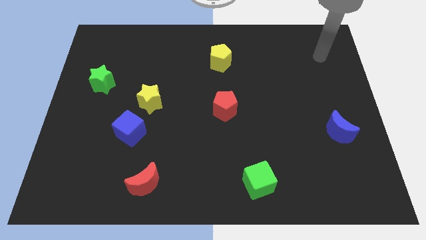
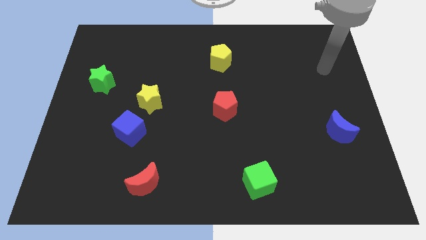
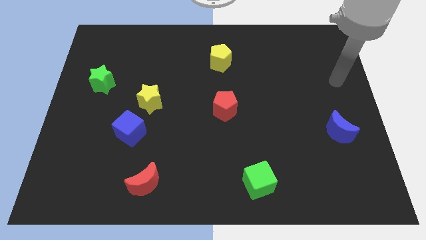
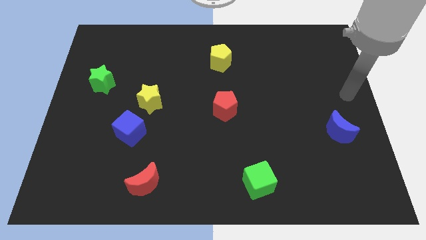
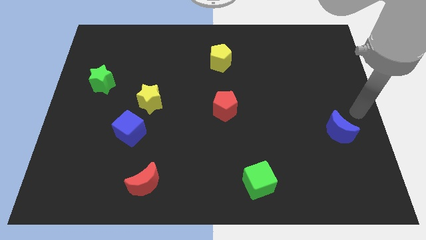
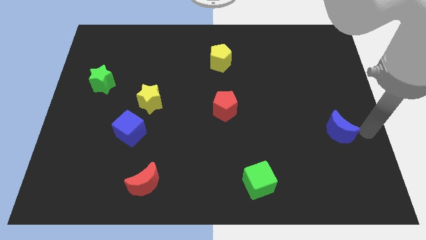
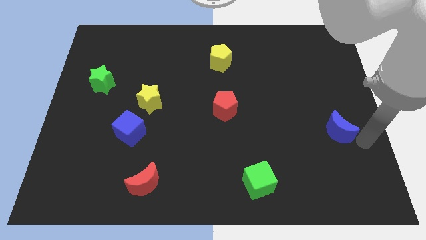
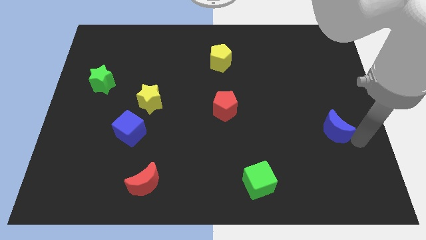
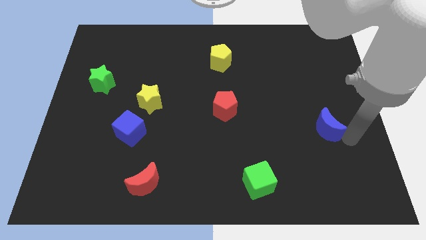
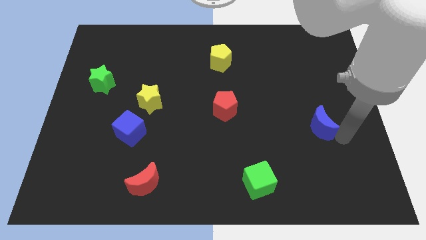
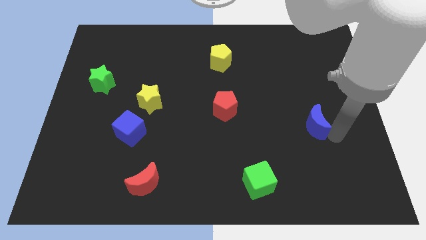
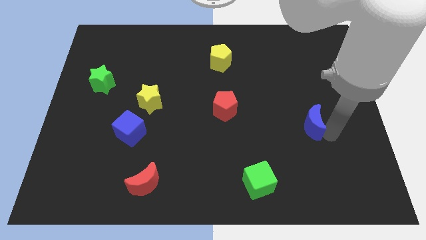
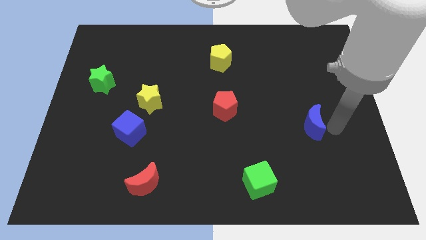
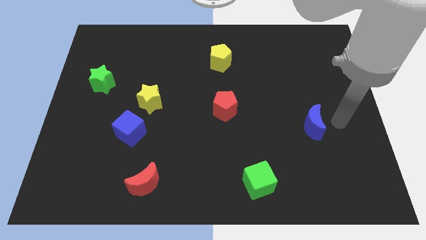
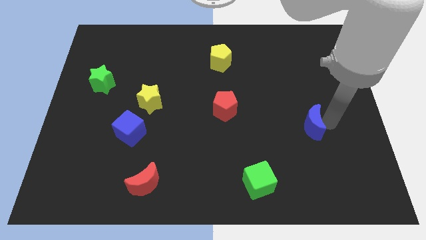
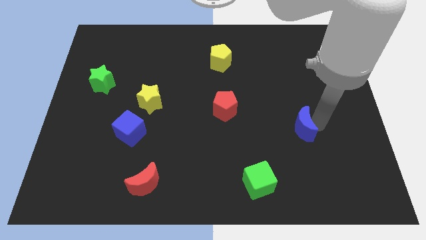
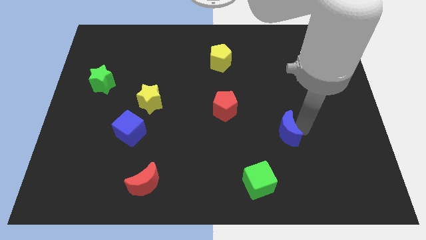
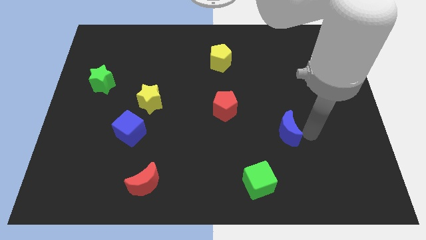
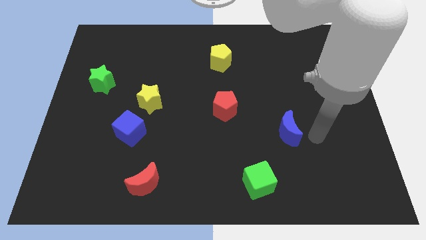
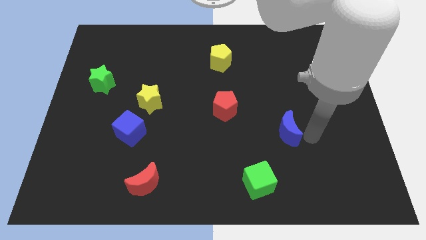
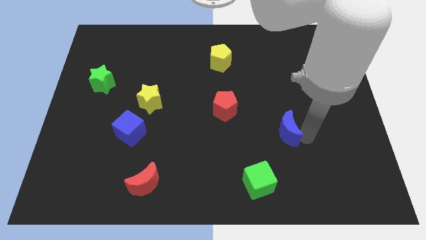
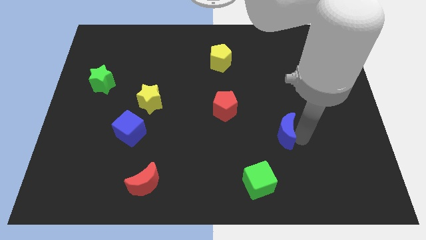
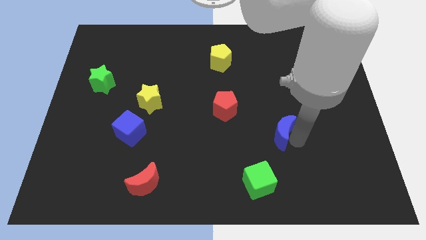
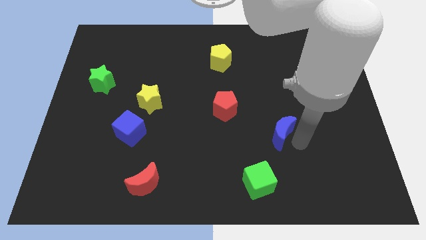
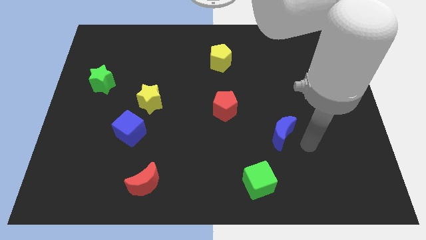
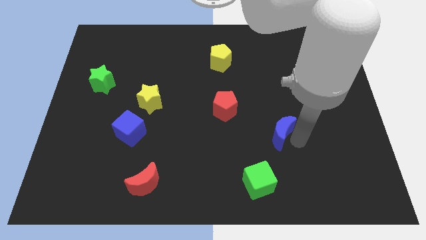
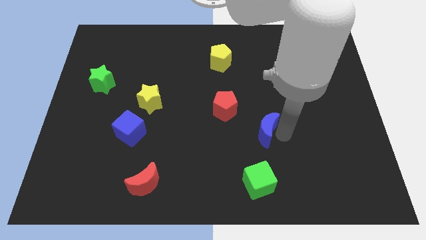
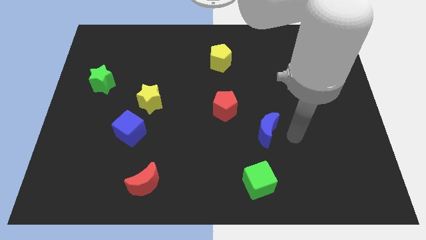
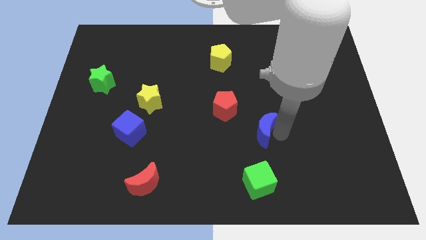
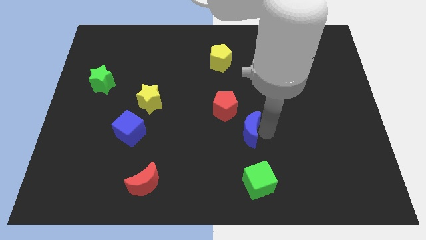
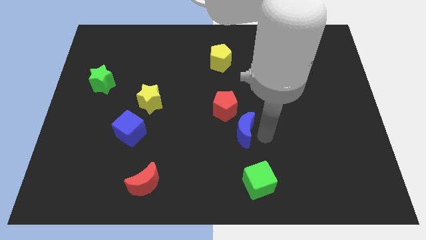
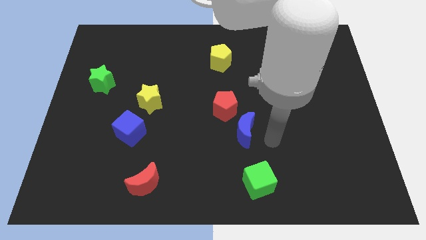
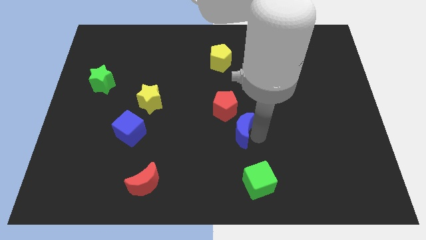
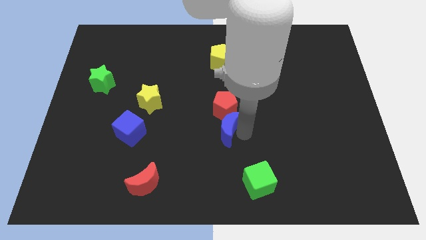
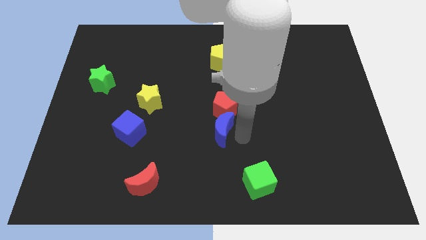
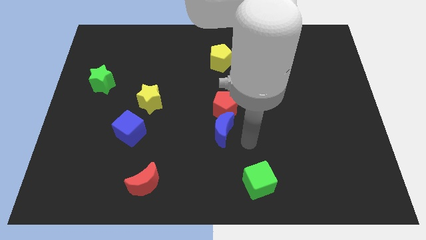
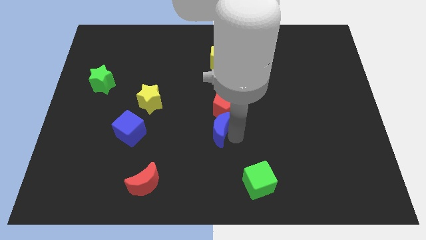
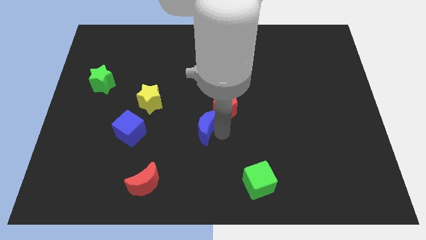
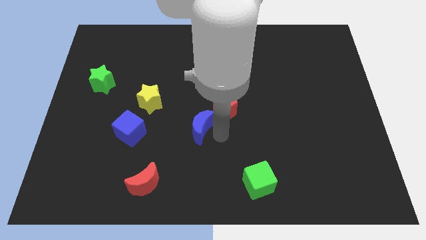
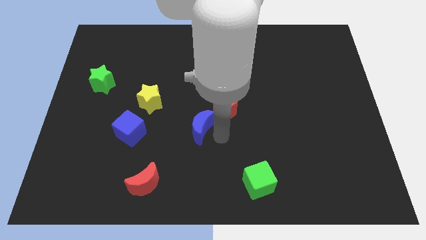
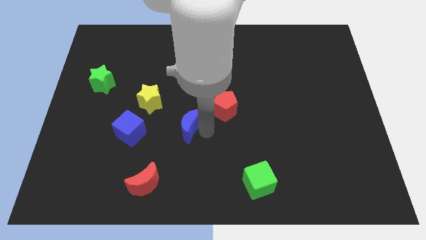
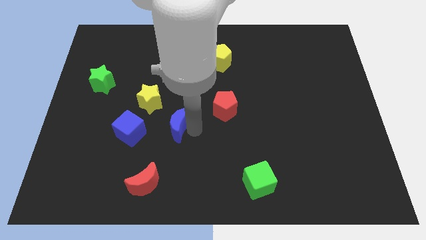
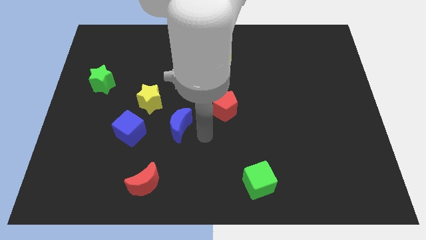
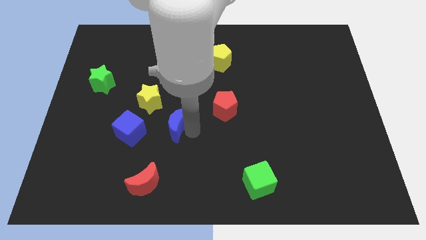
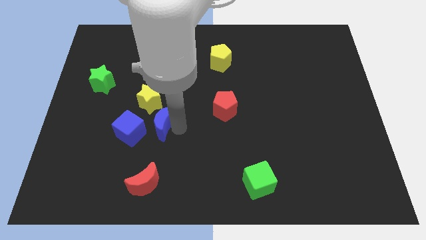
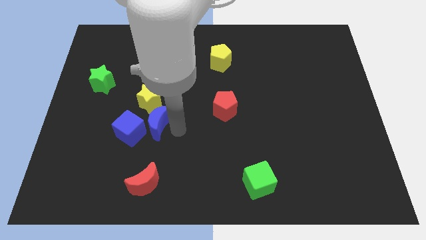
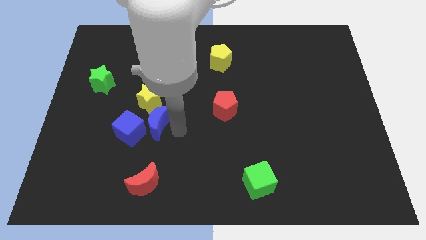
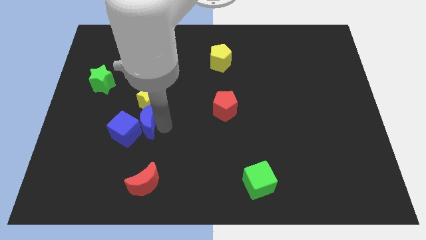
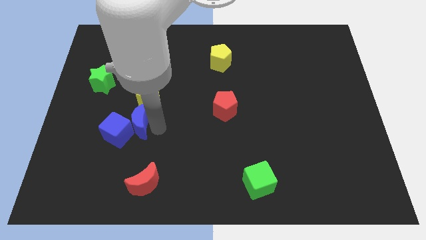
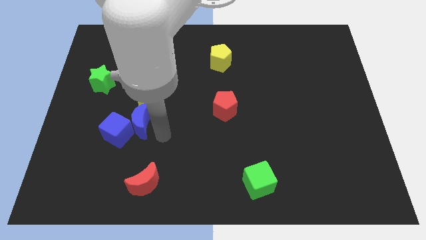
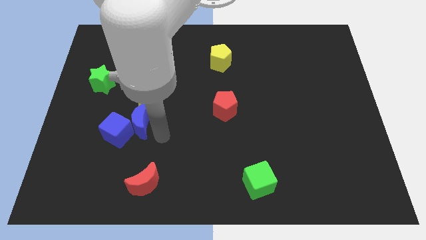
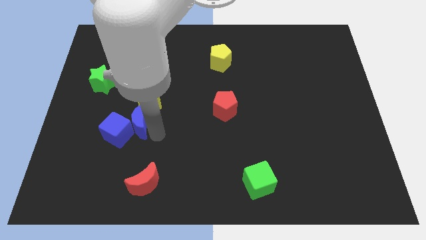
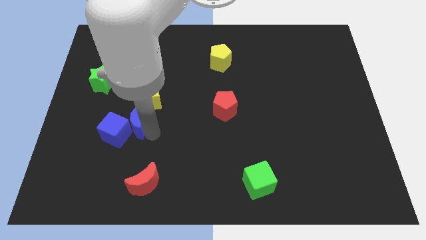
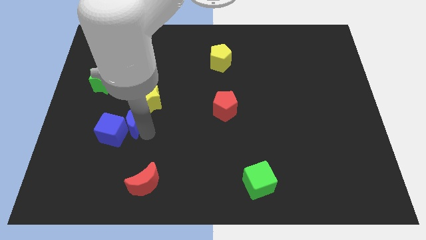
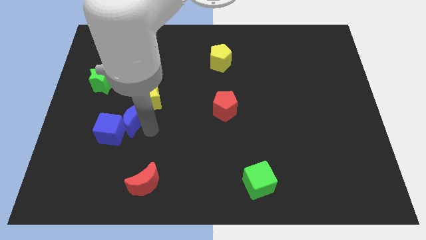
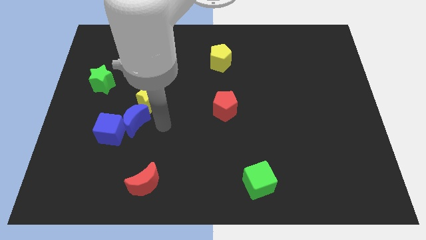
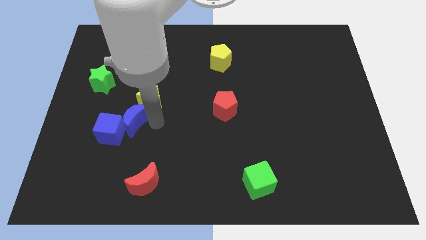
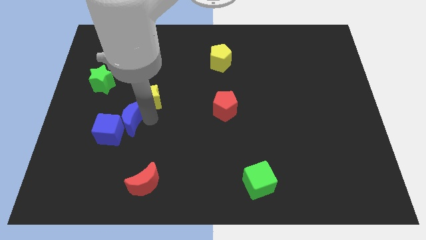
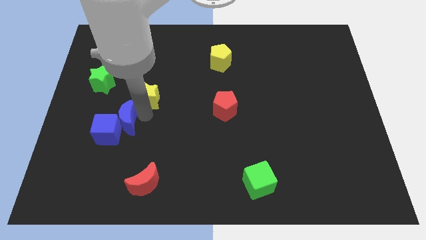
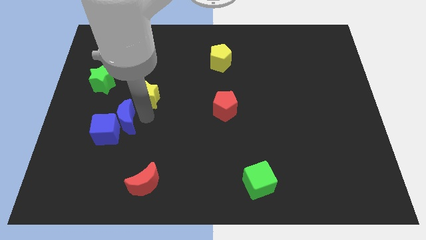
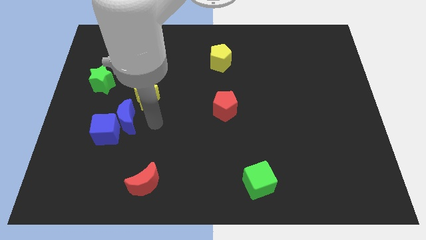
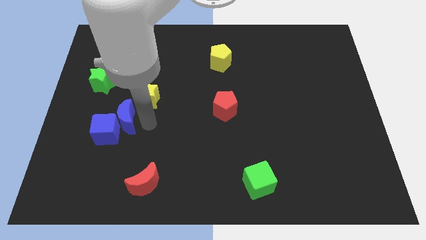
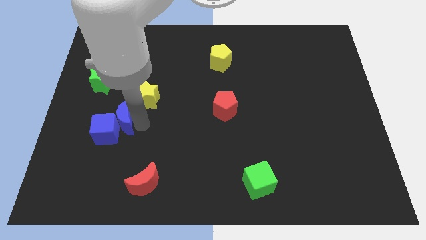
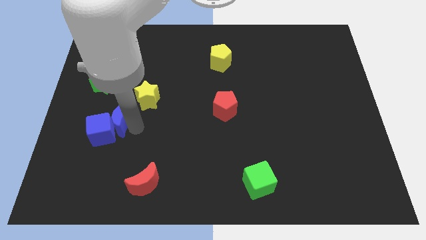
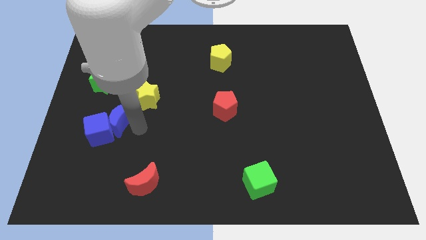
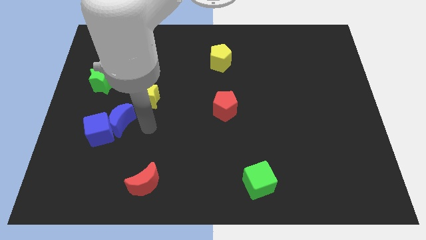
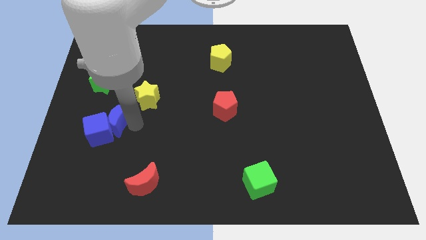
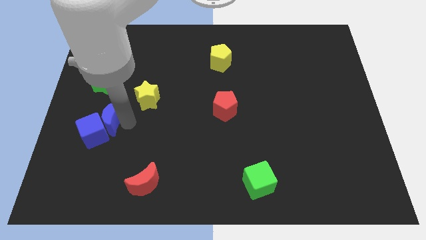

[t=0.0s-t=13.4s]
put the blue moon to the bottom side of the green star

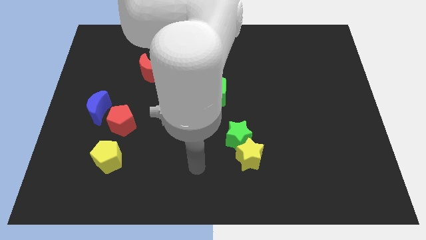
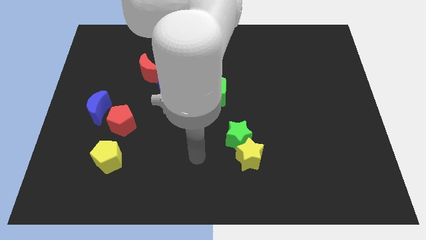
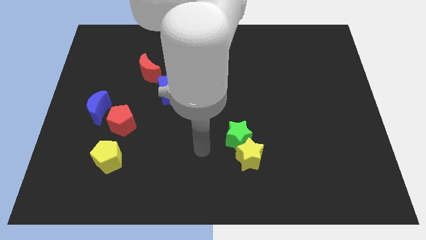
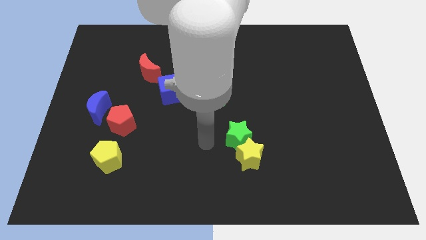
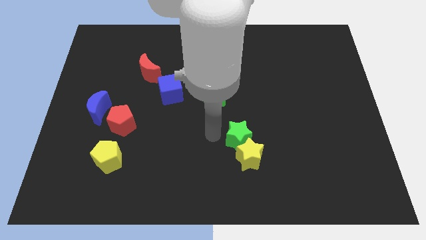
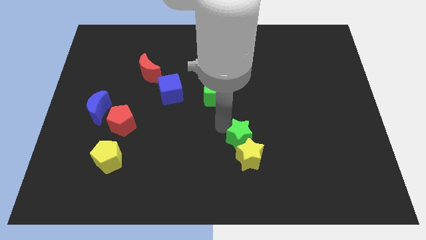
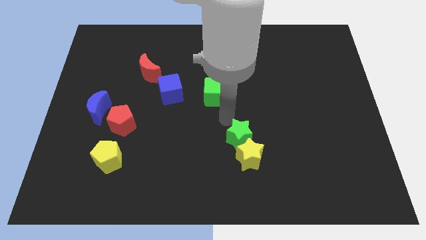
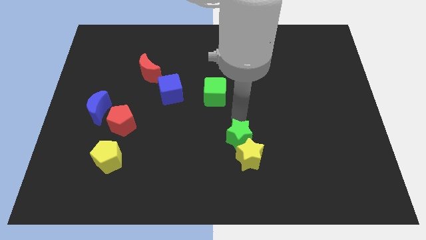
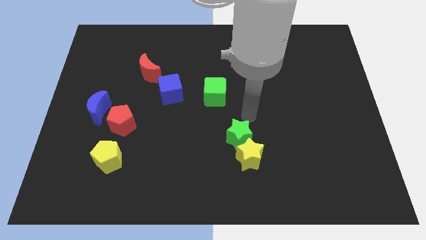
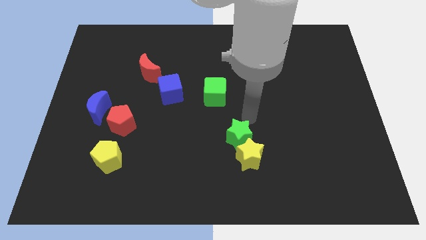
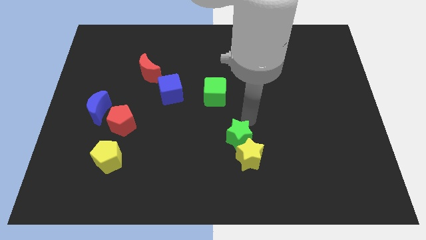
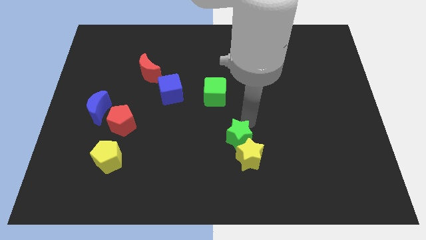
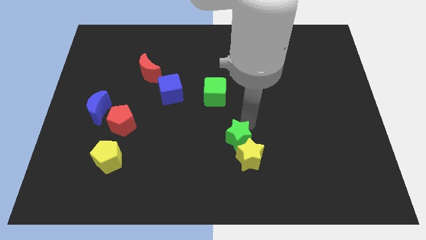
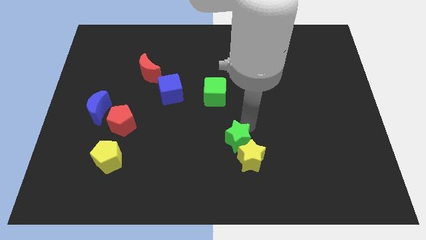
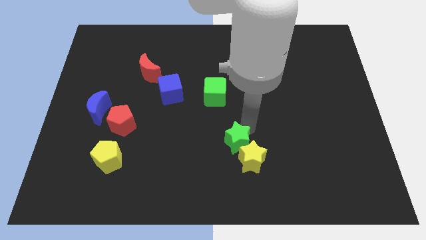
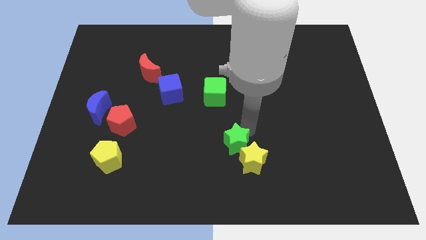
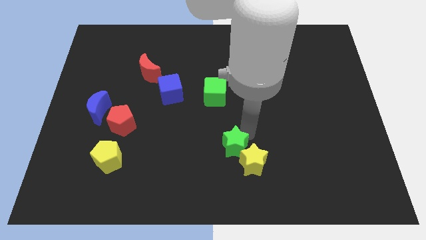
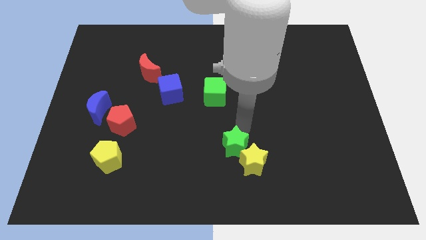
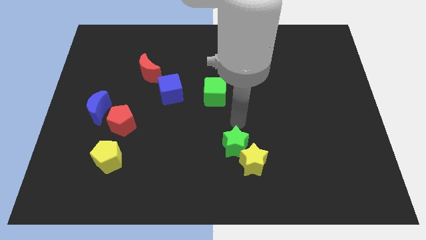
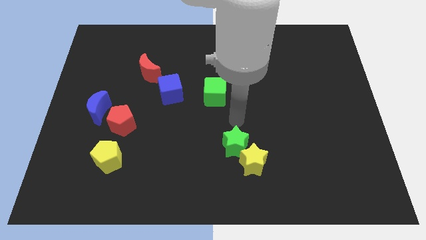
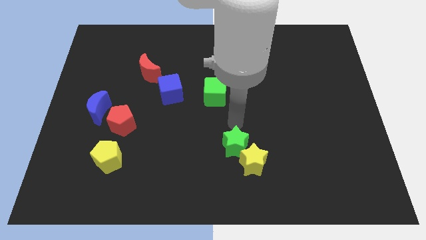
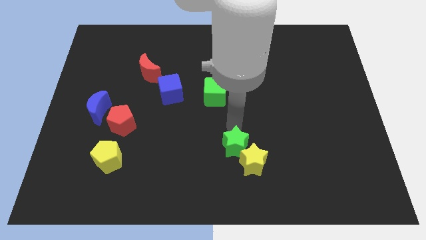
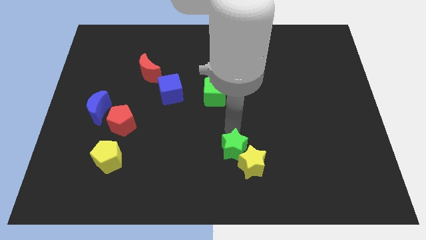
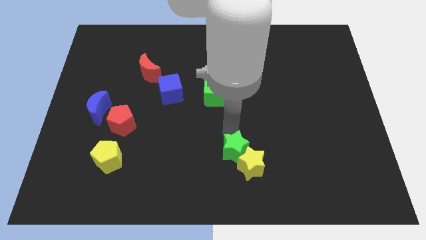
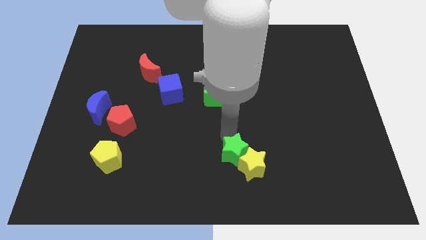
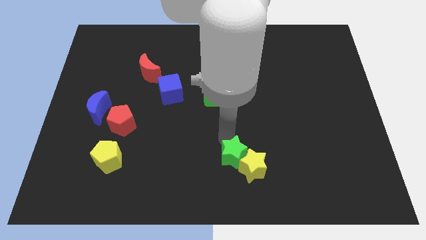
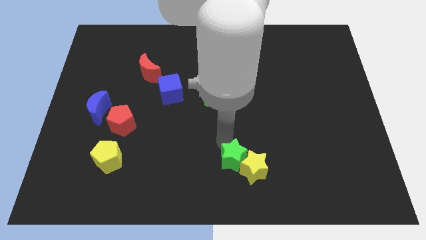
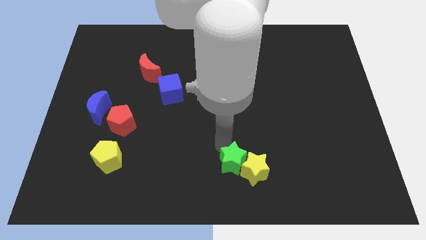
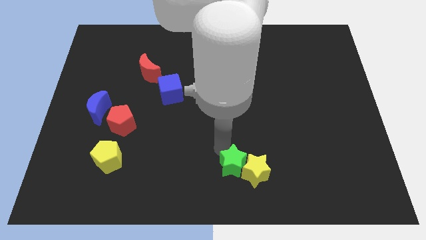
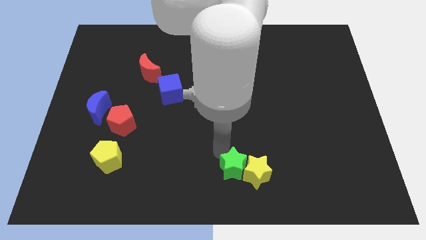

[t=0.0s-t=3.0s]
slide the green star to the bottom left side of the yellow star
